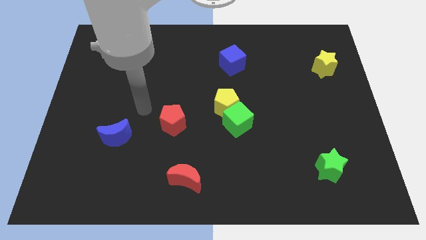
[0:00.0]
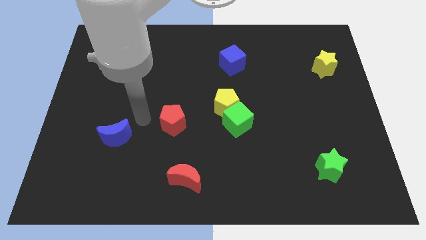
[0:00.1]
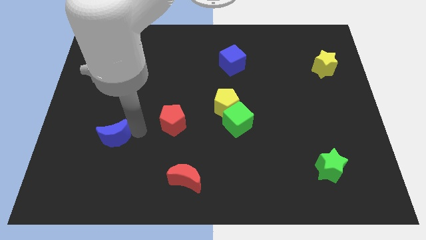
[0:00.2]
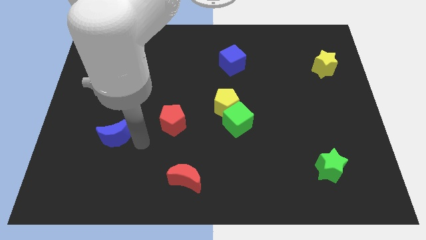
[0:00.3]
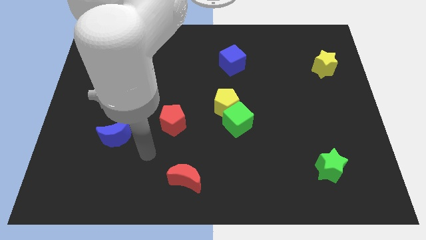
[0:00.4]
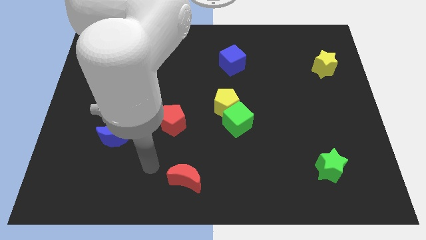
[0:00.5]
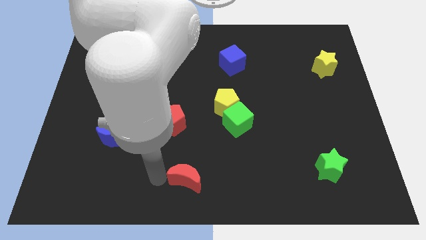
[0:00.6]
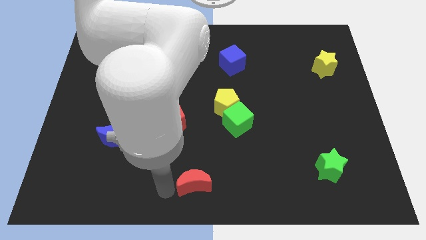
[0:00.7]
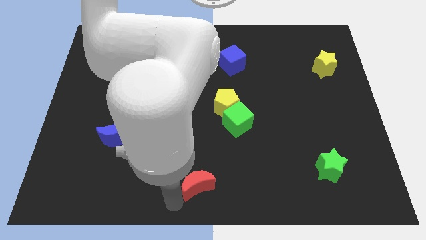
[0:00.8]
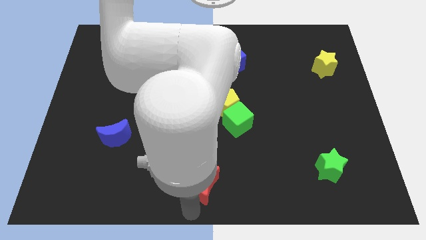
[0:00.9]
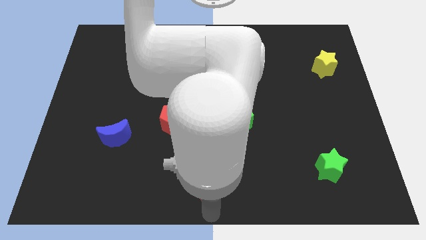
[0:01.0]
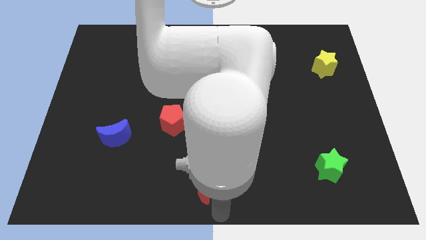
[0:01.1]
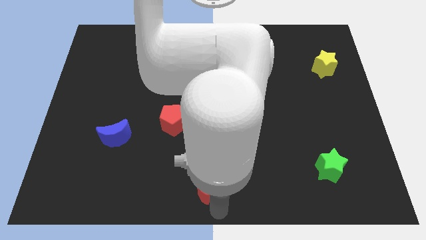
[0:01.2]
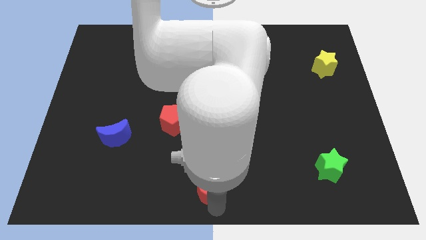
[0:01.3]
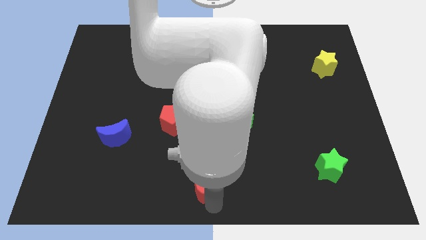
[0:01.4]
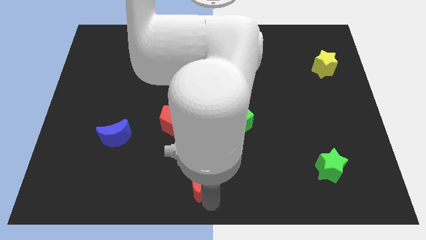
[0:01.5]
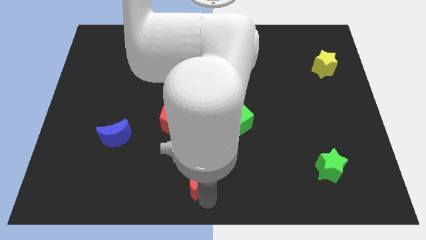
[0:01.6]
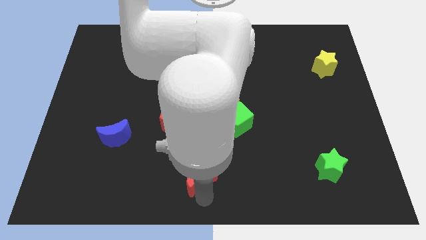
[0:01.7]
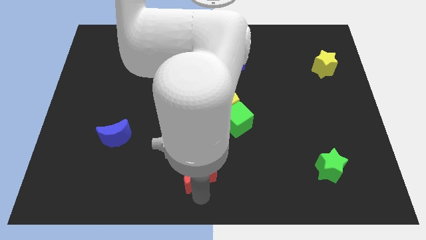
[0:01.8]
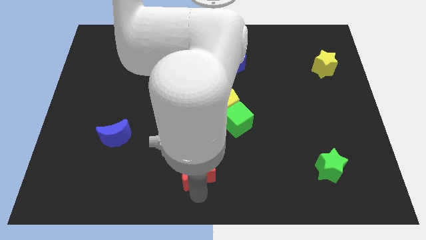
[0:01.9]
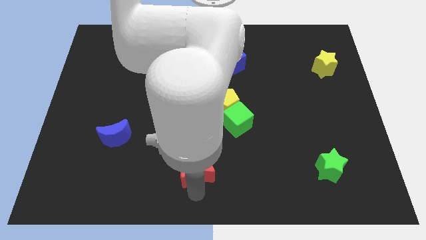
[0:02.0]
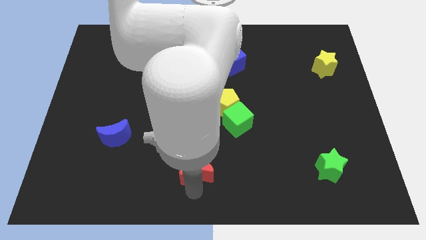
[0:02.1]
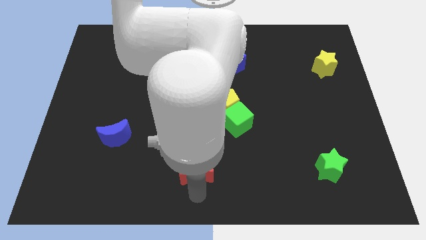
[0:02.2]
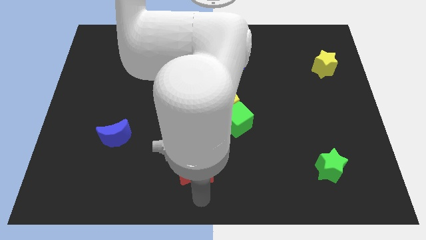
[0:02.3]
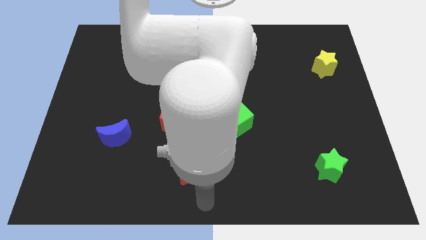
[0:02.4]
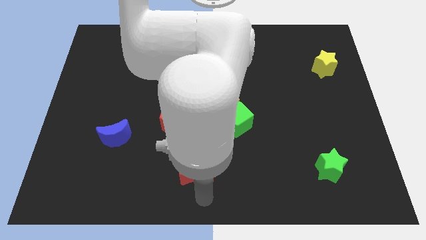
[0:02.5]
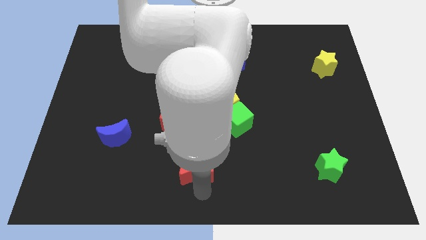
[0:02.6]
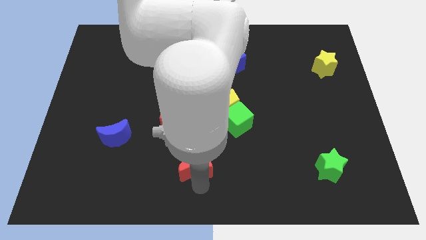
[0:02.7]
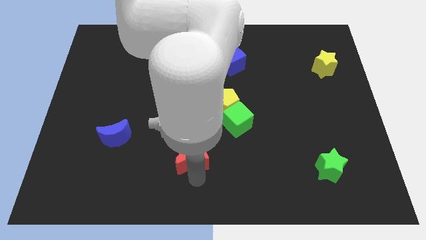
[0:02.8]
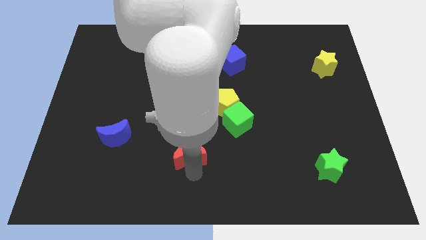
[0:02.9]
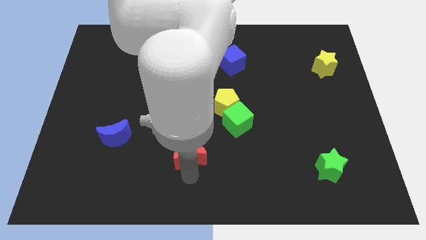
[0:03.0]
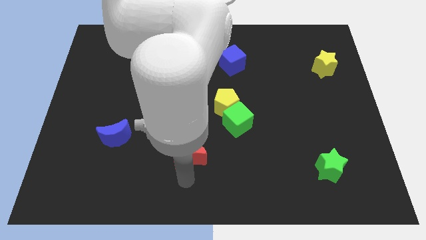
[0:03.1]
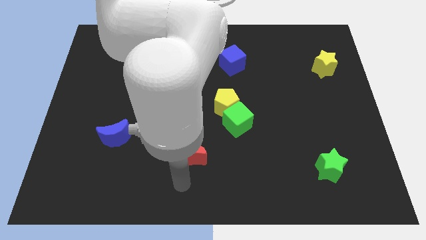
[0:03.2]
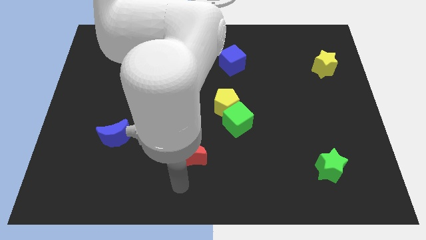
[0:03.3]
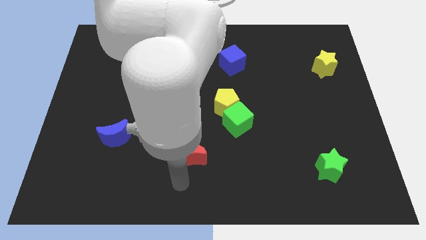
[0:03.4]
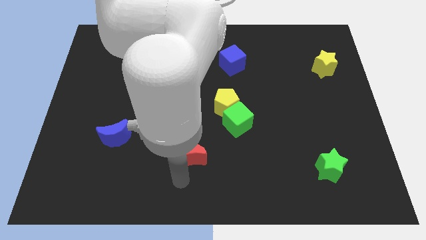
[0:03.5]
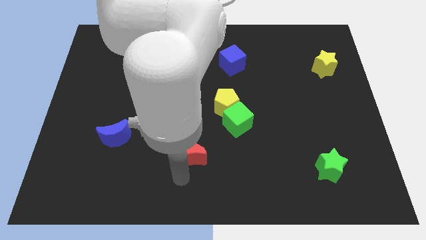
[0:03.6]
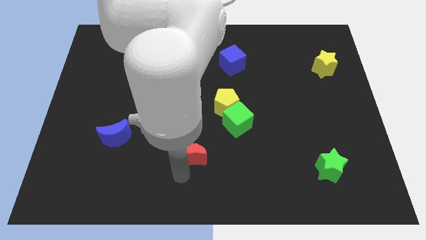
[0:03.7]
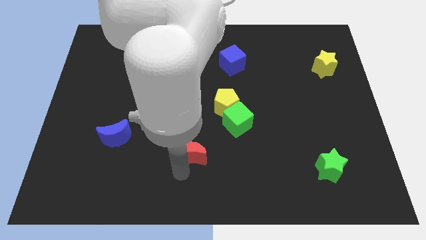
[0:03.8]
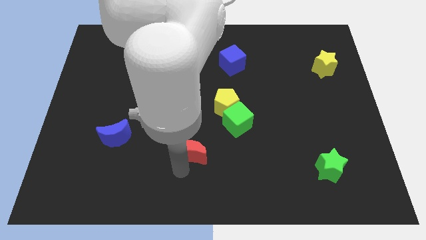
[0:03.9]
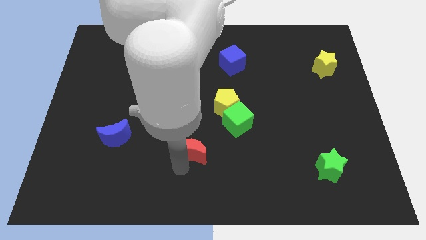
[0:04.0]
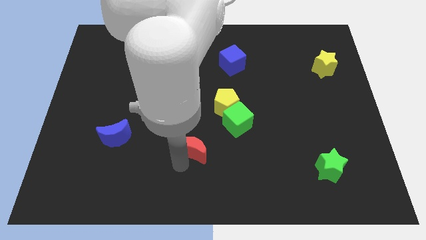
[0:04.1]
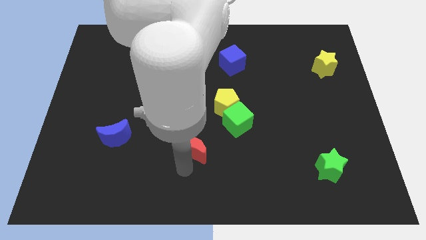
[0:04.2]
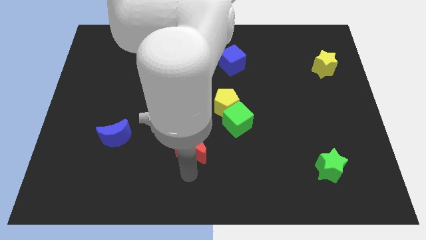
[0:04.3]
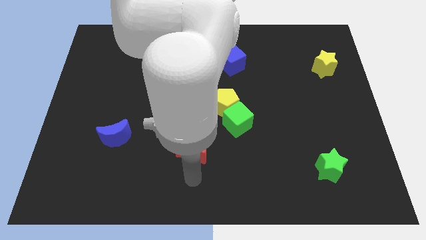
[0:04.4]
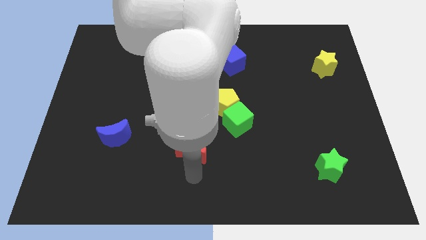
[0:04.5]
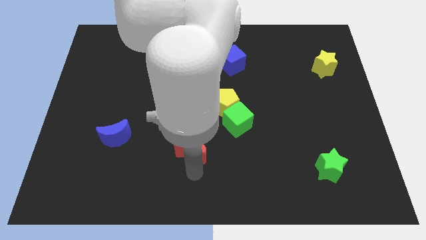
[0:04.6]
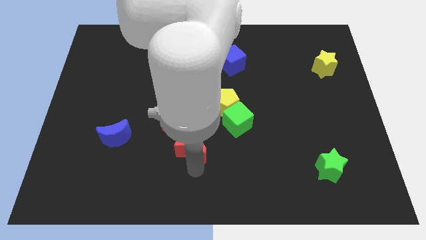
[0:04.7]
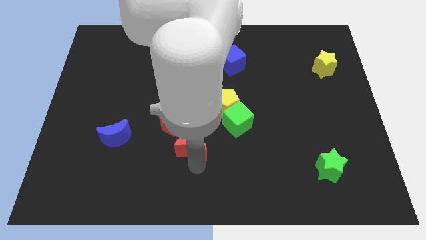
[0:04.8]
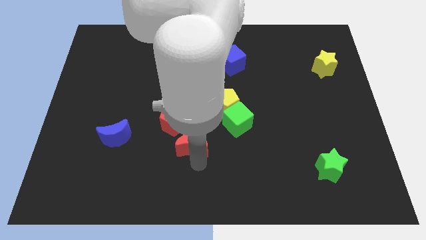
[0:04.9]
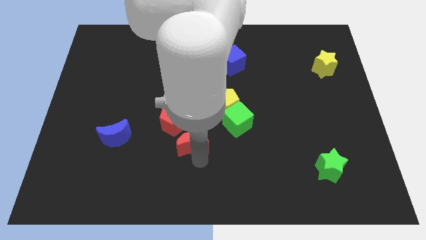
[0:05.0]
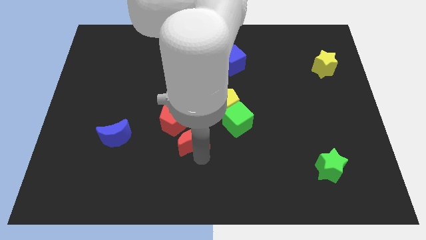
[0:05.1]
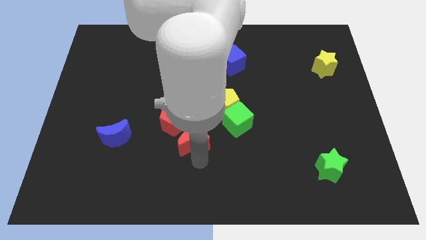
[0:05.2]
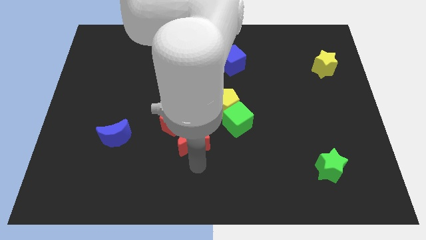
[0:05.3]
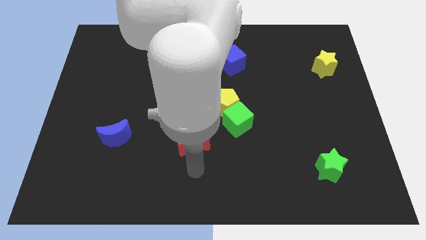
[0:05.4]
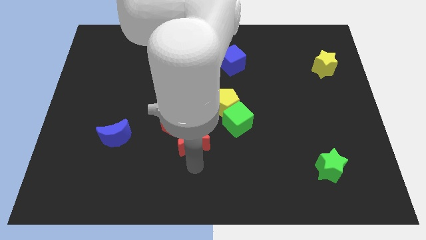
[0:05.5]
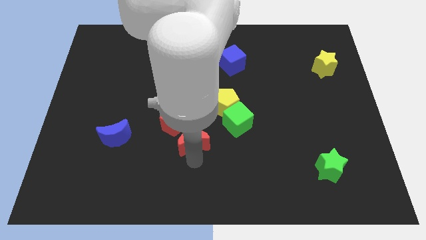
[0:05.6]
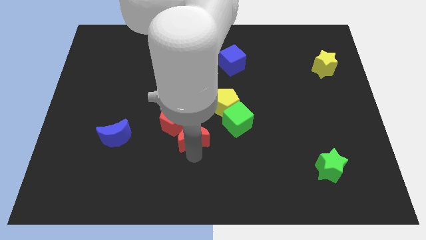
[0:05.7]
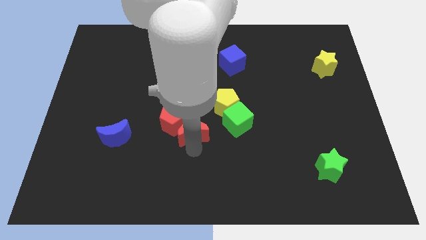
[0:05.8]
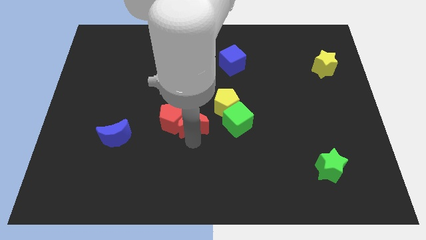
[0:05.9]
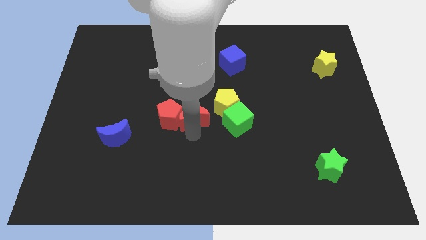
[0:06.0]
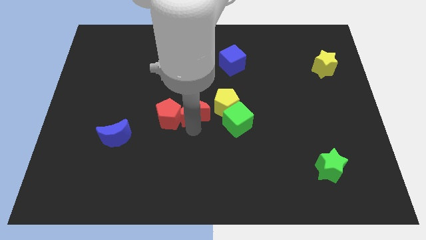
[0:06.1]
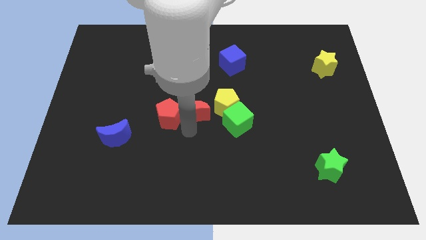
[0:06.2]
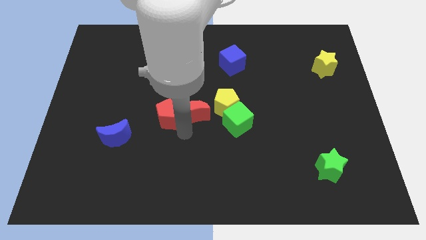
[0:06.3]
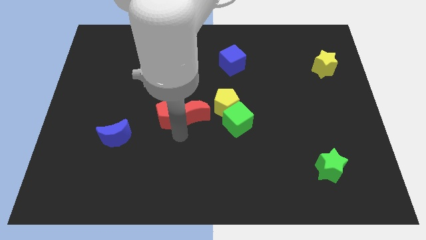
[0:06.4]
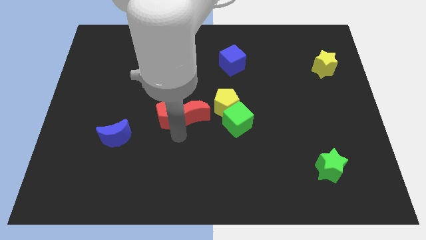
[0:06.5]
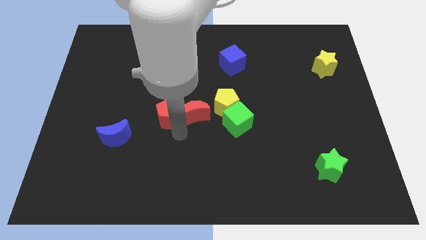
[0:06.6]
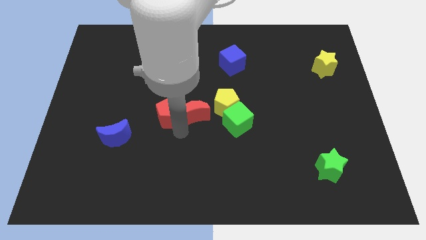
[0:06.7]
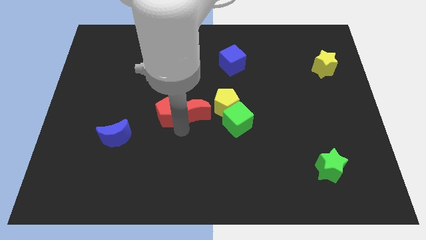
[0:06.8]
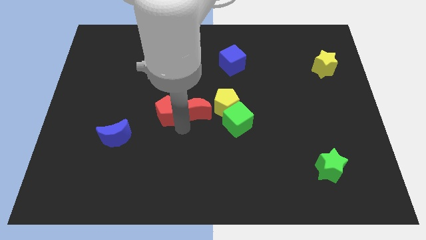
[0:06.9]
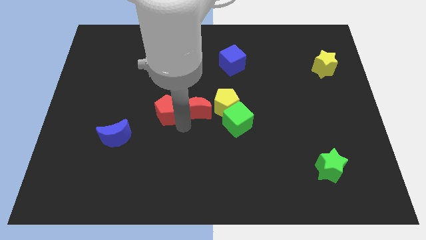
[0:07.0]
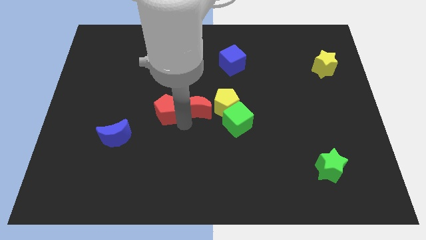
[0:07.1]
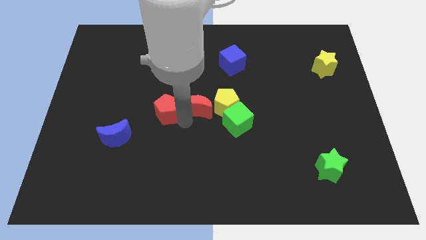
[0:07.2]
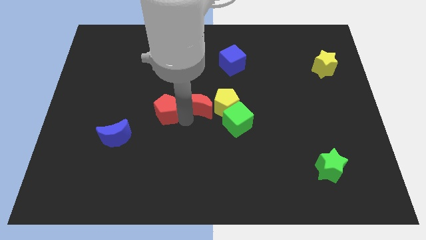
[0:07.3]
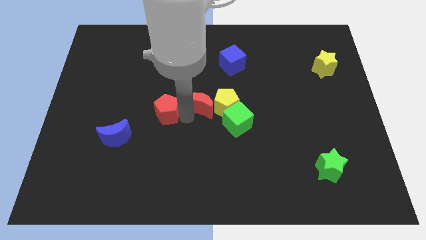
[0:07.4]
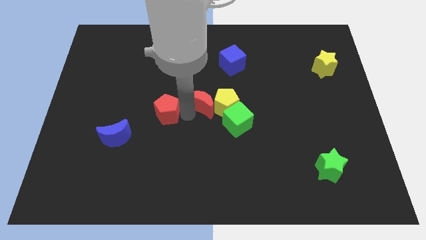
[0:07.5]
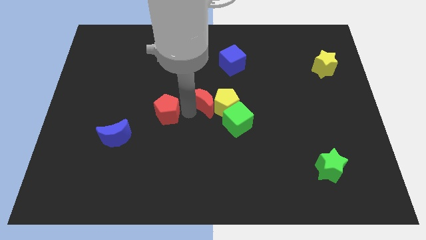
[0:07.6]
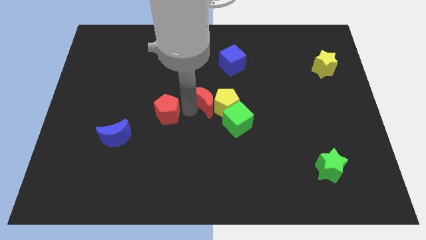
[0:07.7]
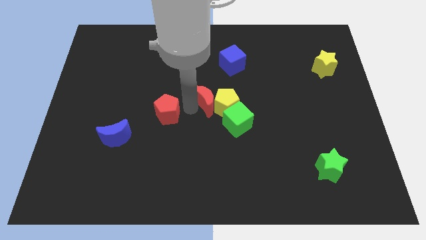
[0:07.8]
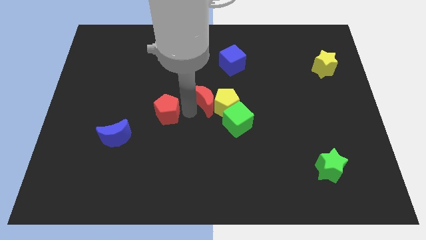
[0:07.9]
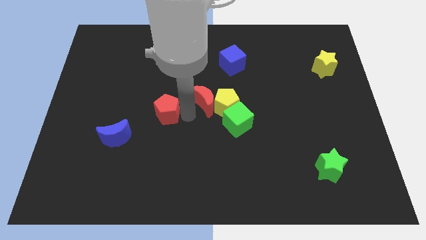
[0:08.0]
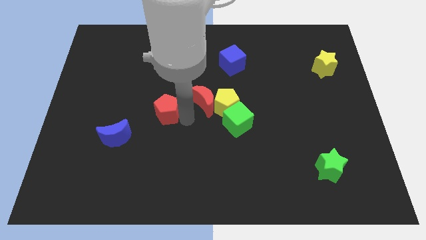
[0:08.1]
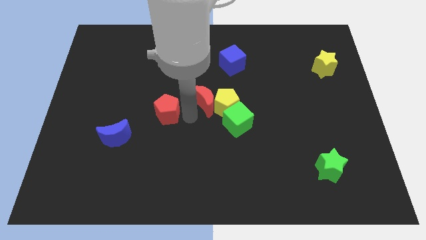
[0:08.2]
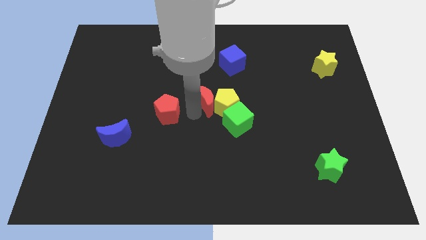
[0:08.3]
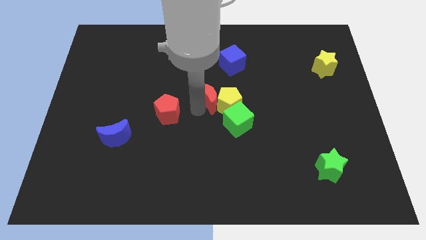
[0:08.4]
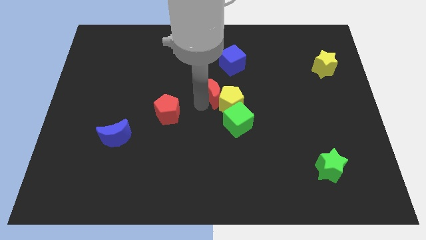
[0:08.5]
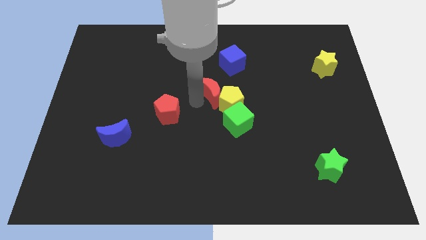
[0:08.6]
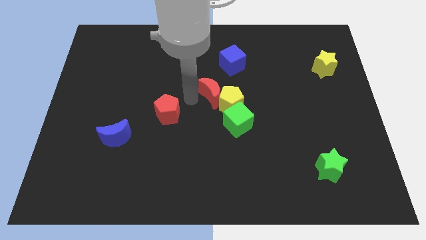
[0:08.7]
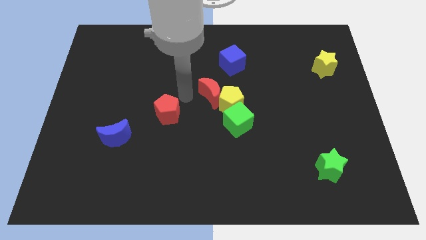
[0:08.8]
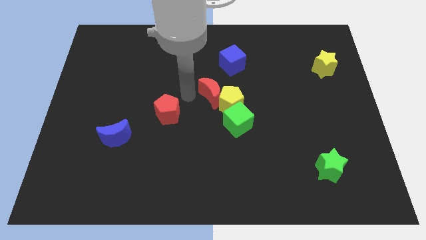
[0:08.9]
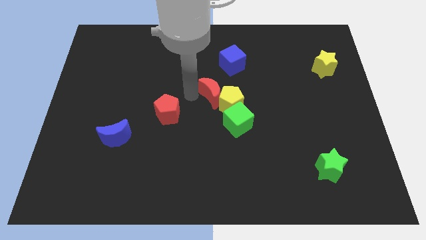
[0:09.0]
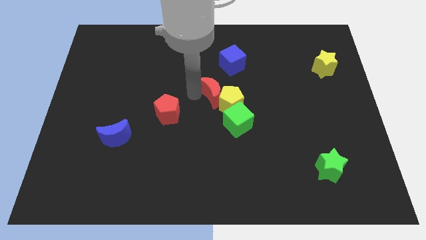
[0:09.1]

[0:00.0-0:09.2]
push the red moon to the bottom of the blue cube
